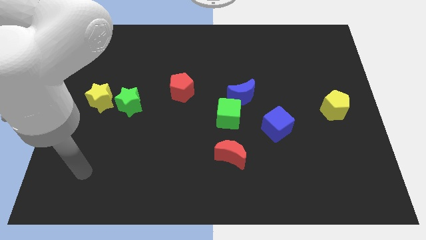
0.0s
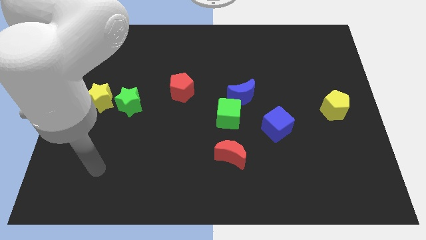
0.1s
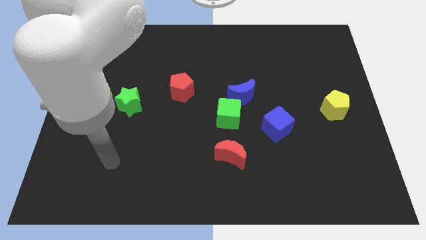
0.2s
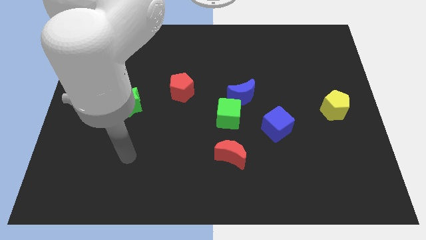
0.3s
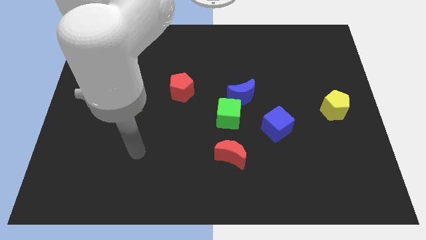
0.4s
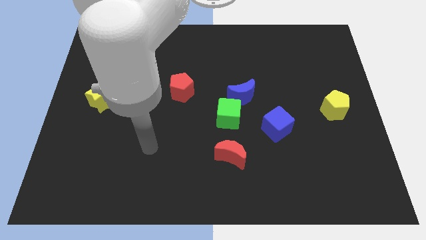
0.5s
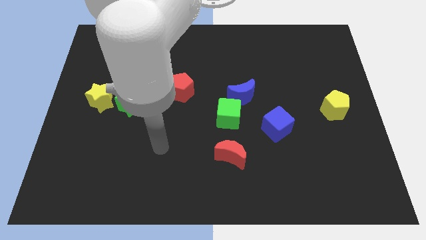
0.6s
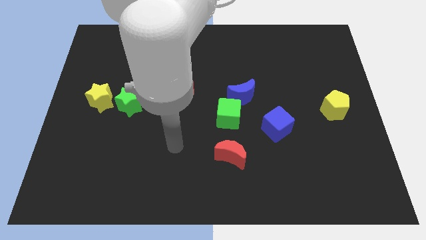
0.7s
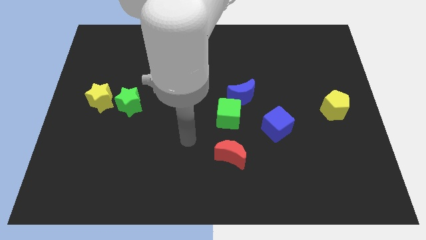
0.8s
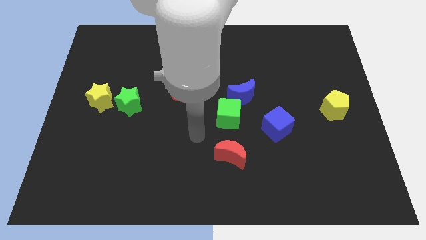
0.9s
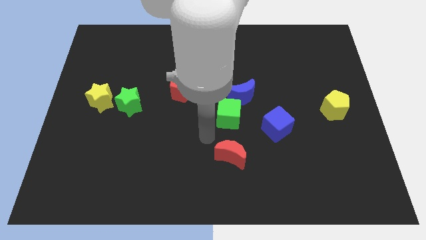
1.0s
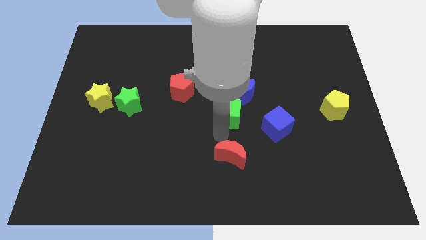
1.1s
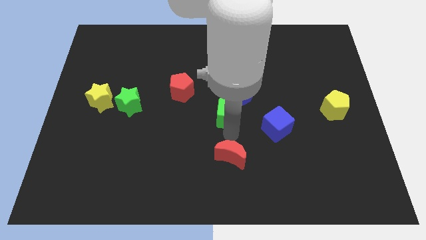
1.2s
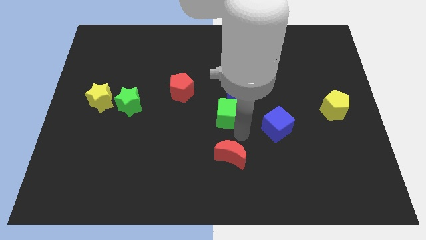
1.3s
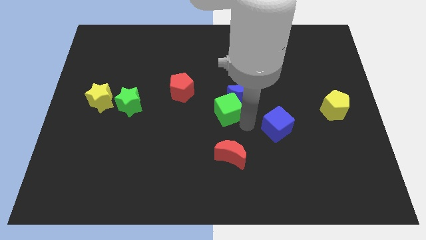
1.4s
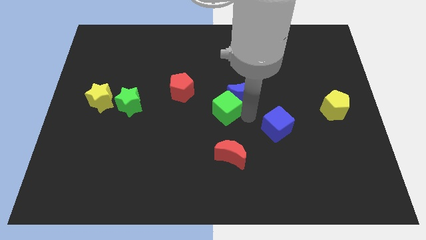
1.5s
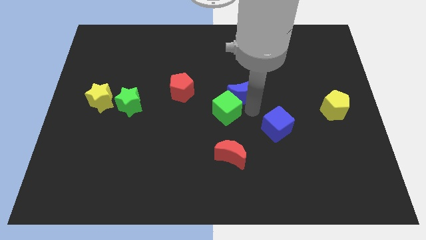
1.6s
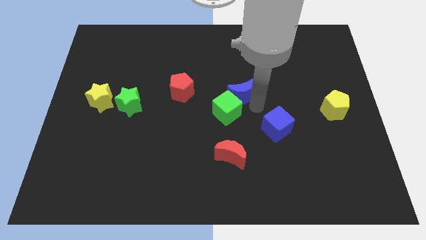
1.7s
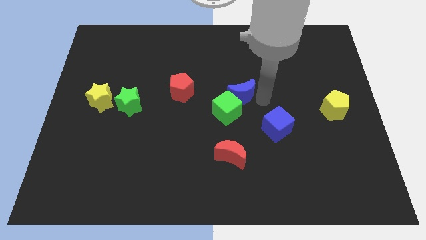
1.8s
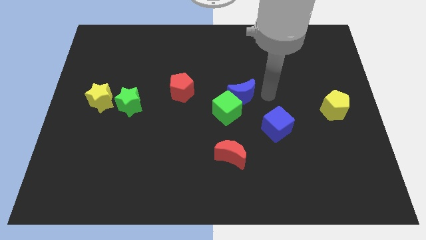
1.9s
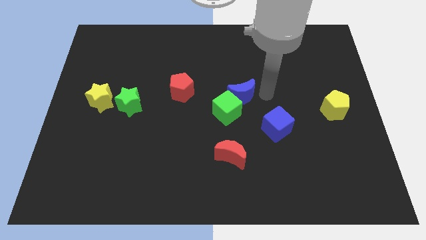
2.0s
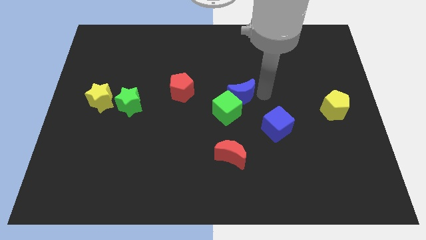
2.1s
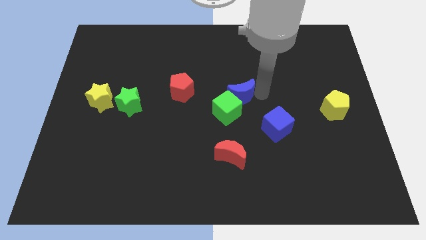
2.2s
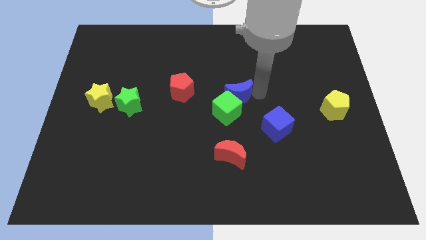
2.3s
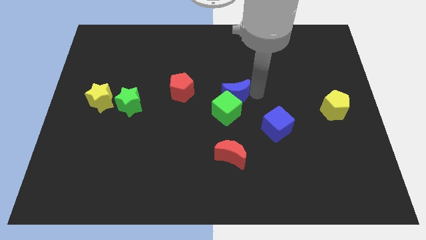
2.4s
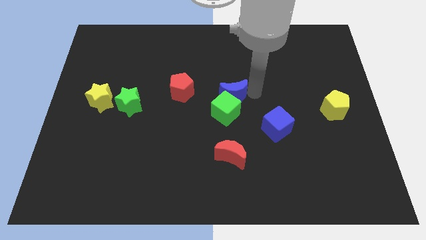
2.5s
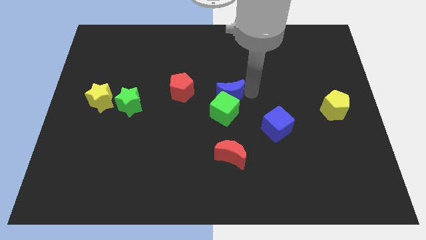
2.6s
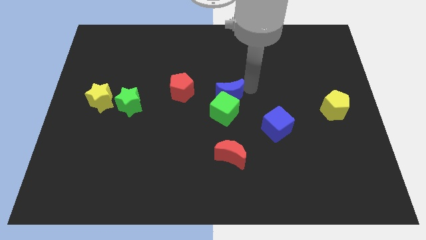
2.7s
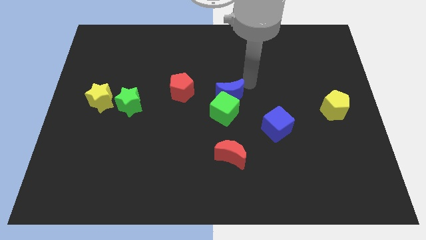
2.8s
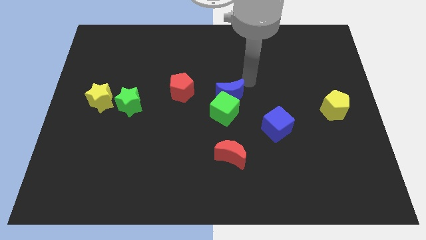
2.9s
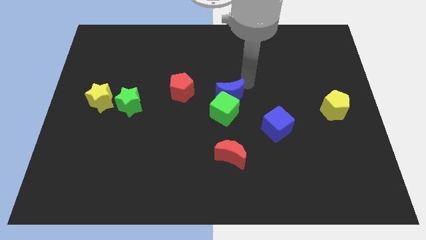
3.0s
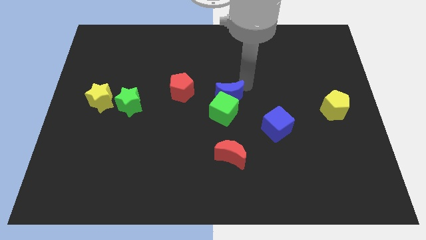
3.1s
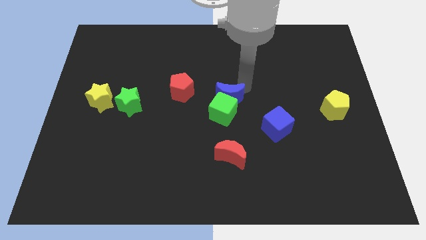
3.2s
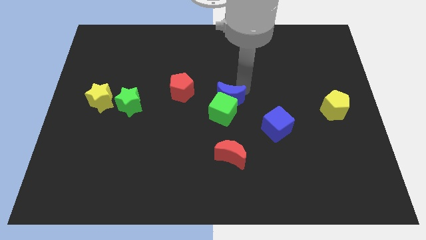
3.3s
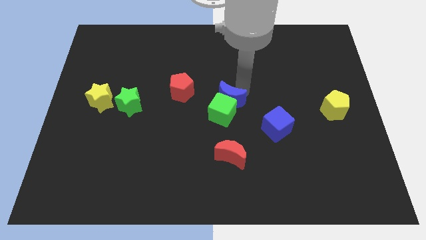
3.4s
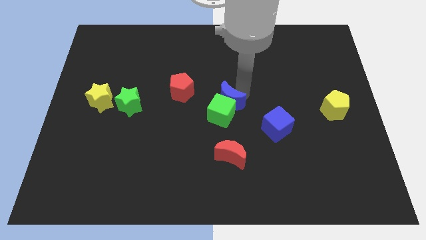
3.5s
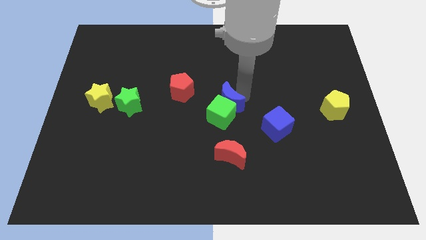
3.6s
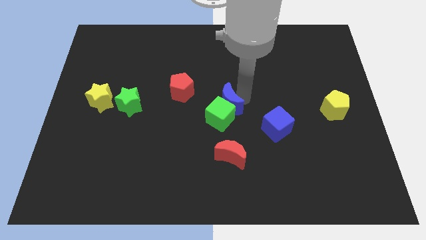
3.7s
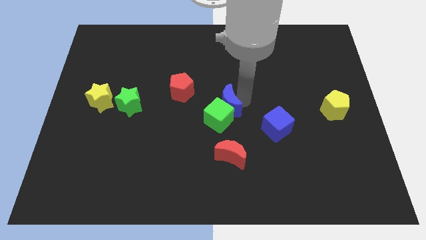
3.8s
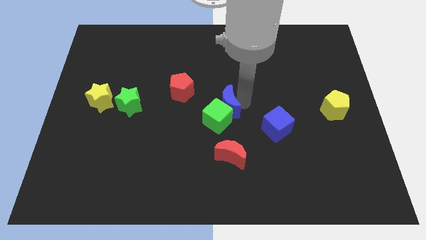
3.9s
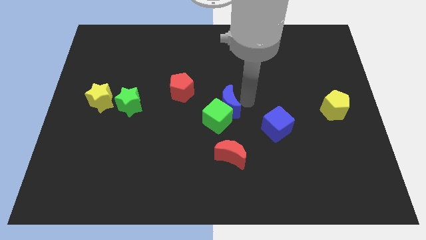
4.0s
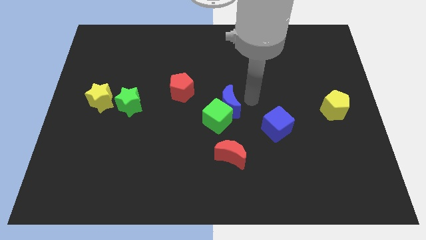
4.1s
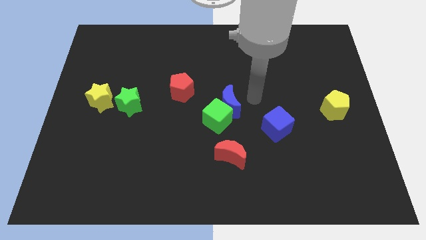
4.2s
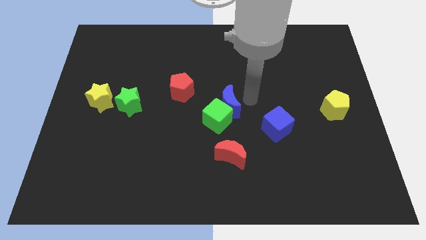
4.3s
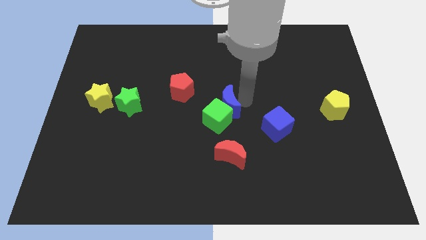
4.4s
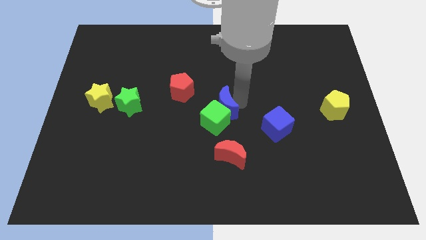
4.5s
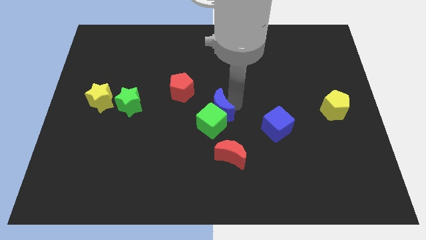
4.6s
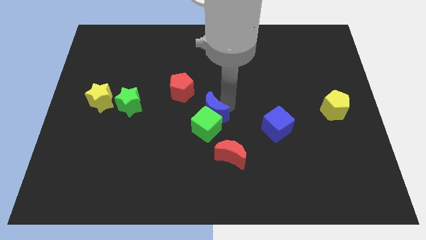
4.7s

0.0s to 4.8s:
slightly move the blue moon down and then to the left

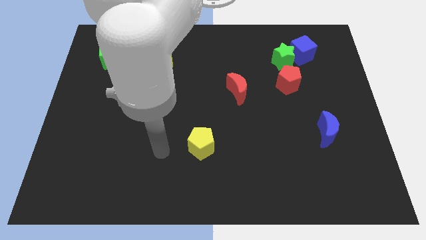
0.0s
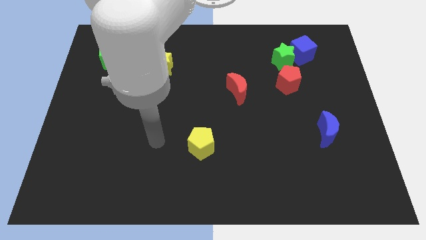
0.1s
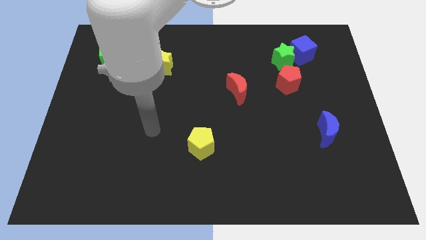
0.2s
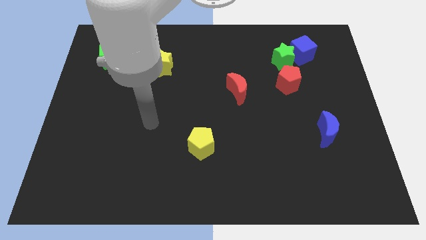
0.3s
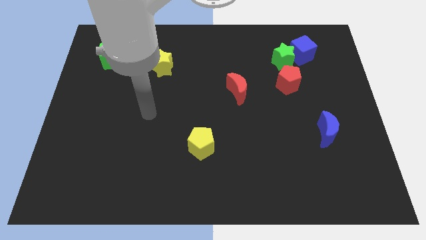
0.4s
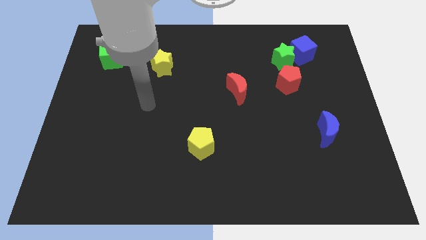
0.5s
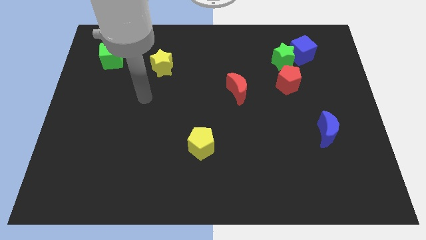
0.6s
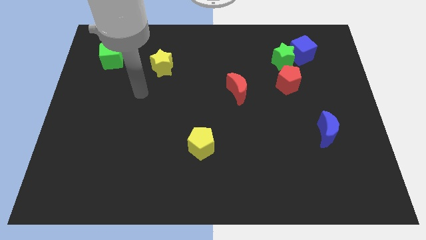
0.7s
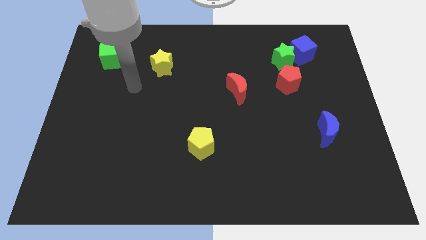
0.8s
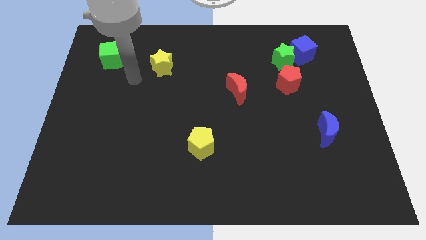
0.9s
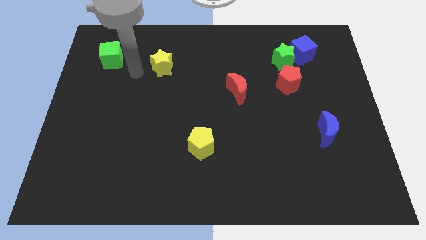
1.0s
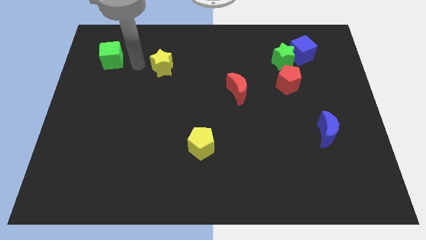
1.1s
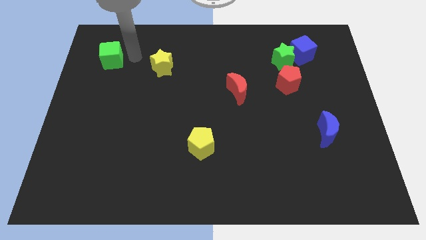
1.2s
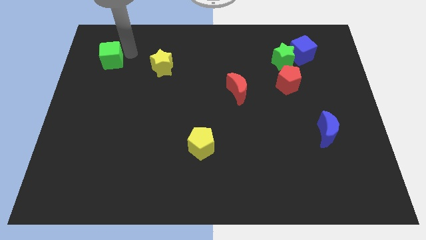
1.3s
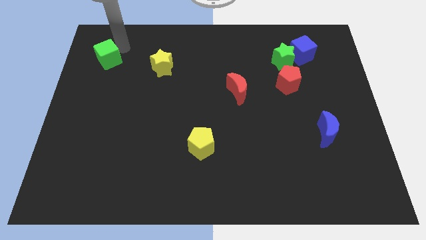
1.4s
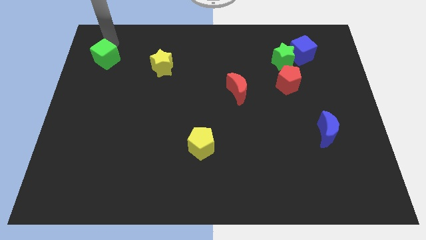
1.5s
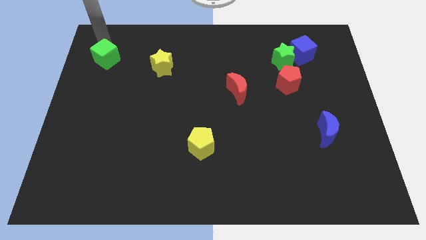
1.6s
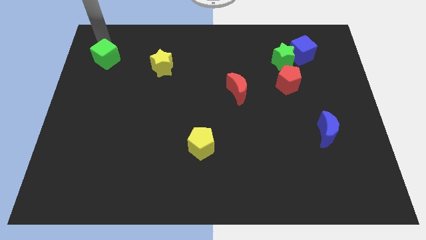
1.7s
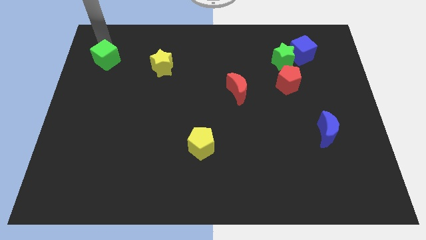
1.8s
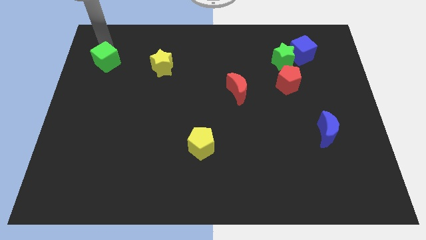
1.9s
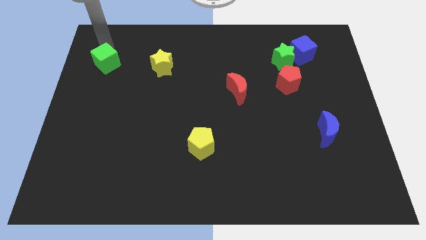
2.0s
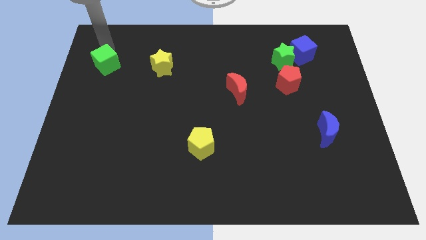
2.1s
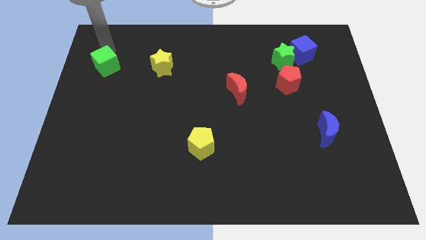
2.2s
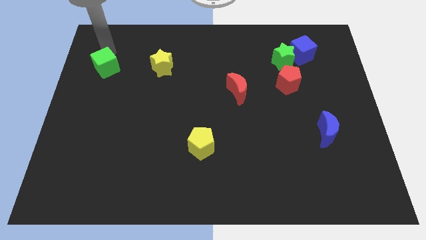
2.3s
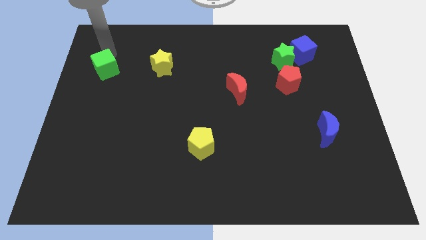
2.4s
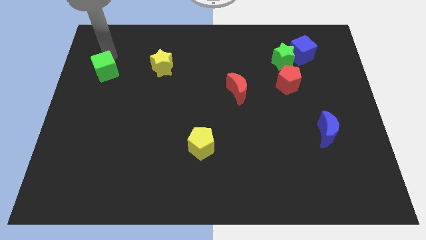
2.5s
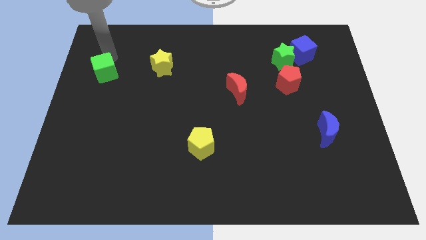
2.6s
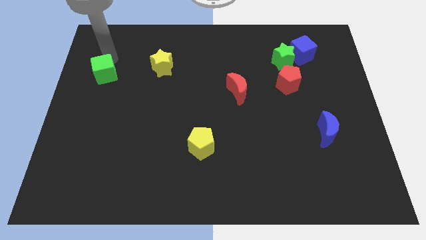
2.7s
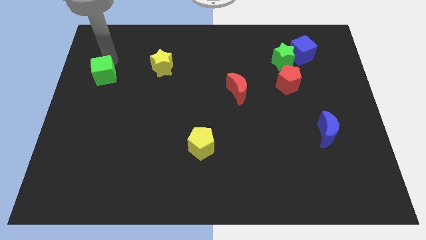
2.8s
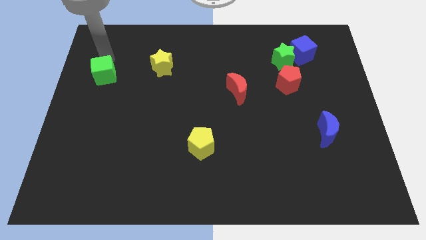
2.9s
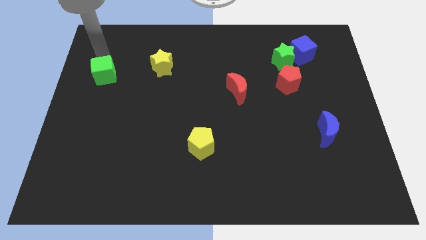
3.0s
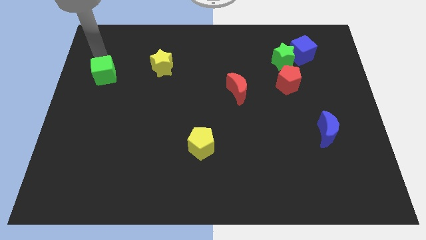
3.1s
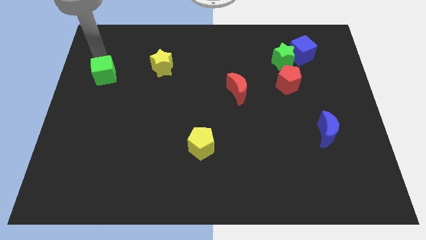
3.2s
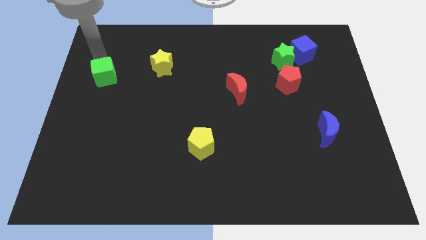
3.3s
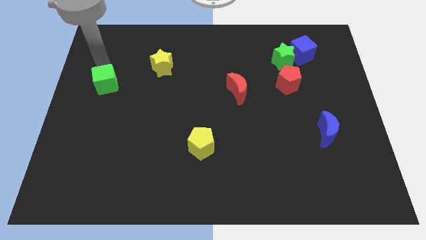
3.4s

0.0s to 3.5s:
slightly slide the green cube downwards

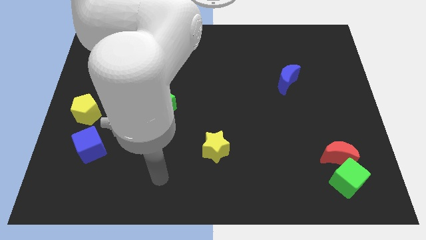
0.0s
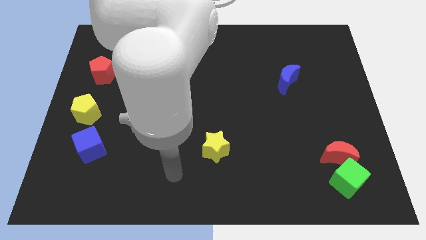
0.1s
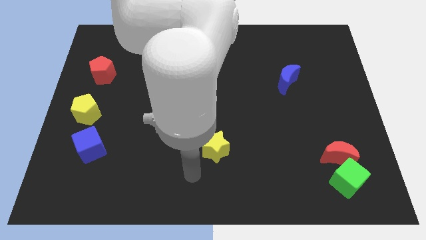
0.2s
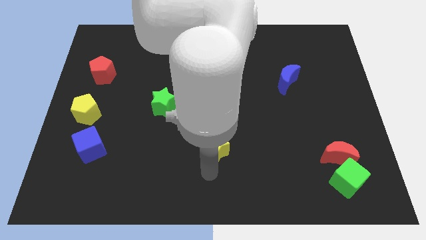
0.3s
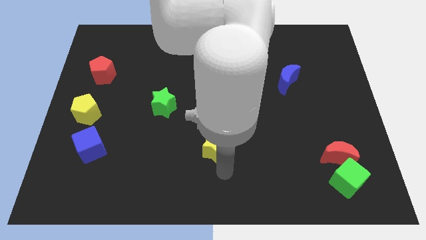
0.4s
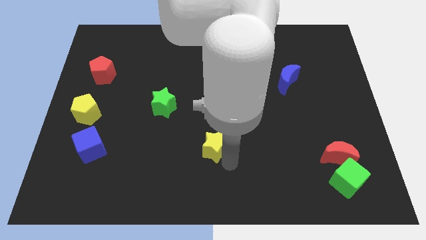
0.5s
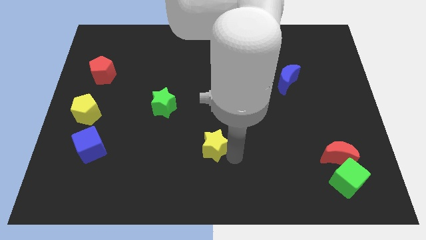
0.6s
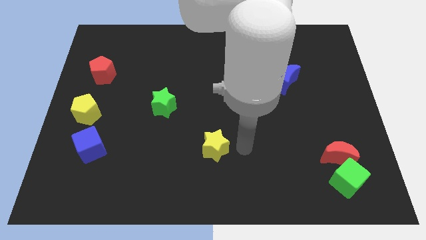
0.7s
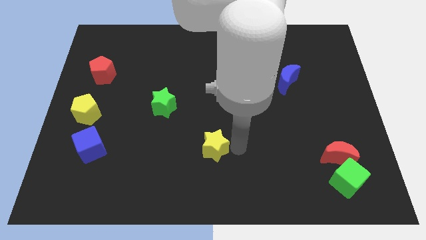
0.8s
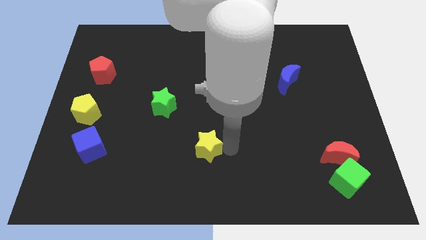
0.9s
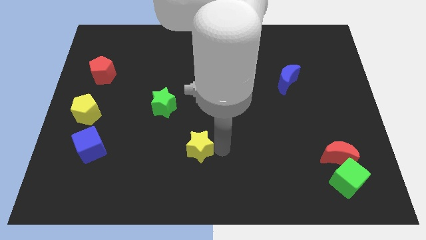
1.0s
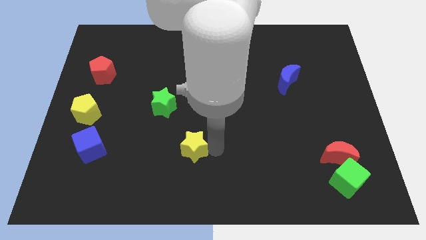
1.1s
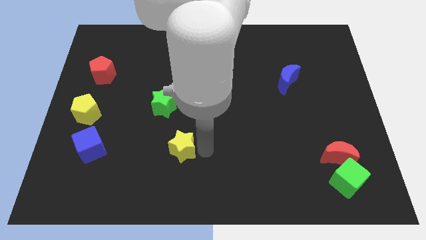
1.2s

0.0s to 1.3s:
push the yellow star somewhat left
